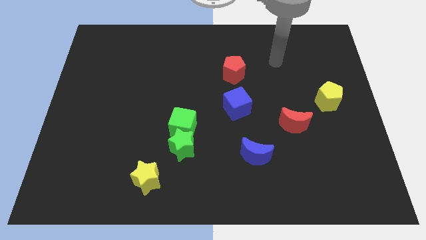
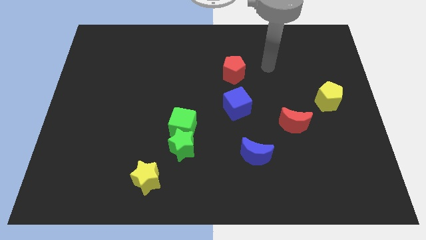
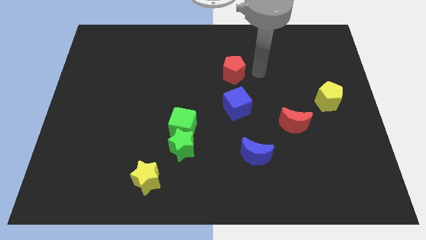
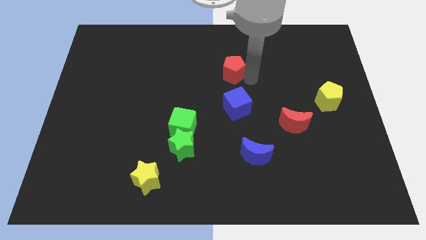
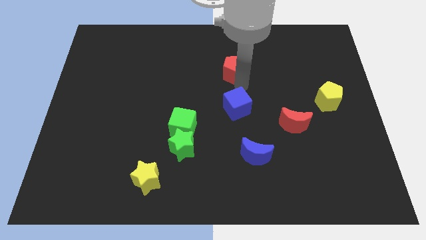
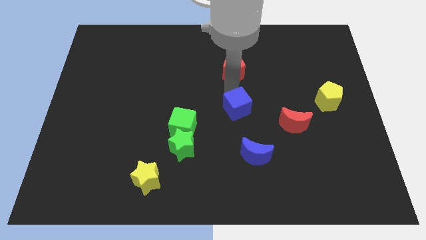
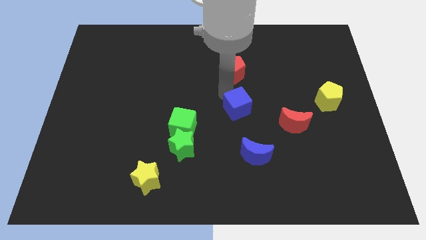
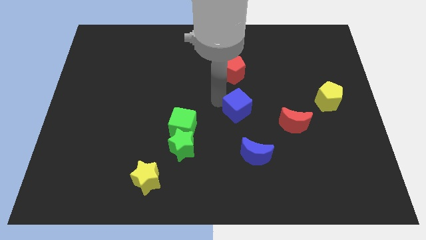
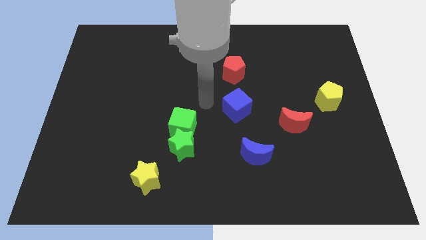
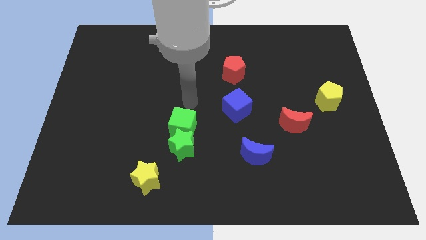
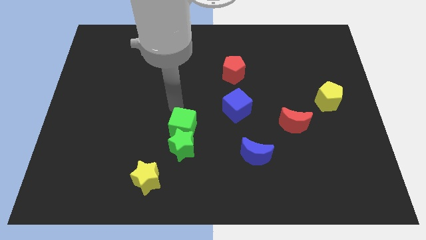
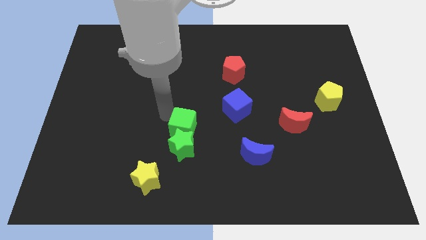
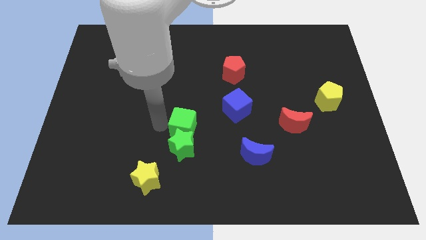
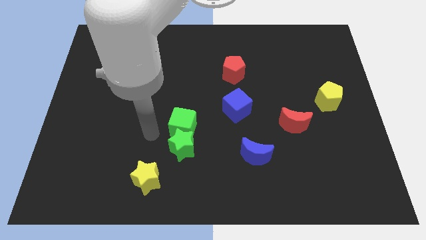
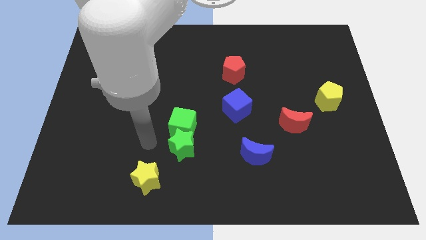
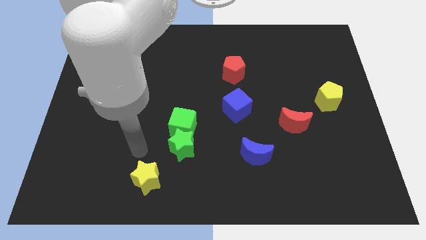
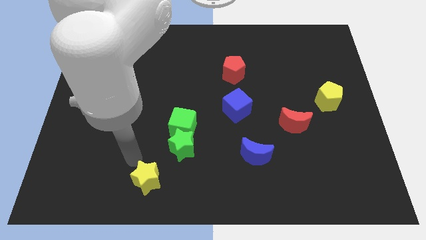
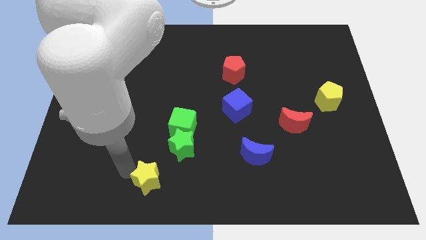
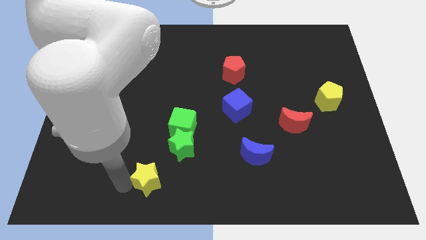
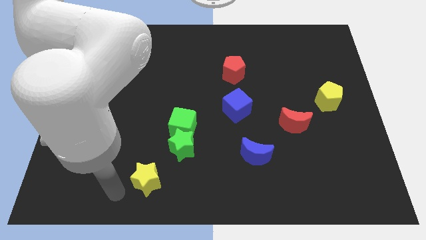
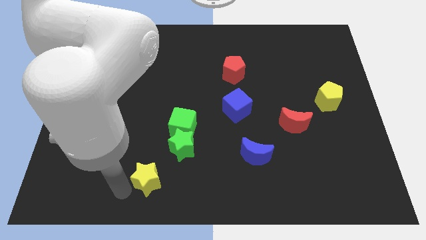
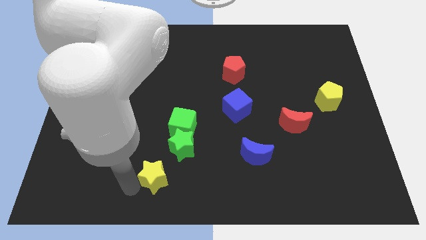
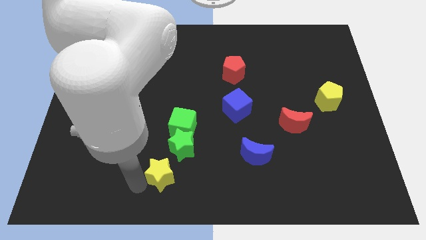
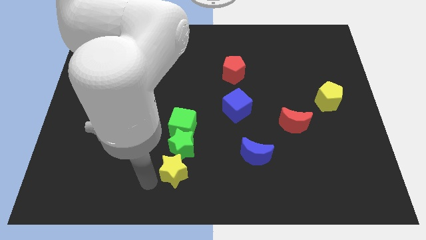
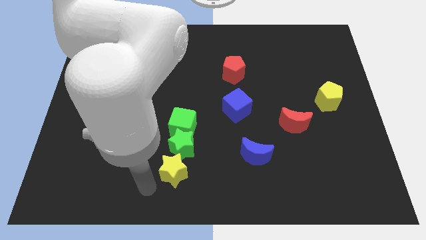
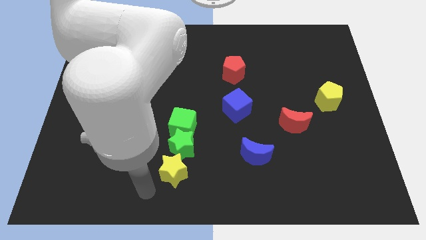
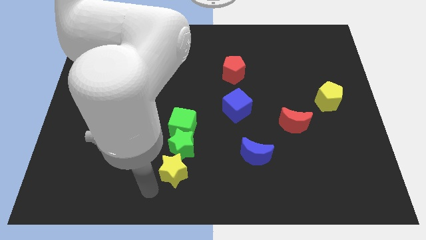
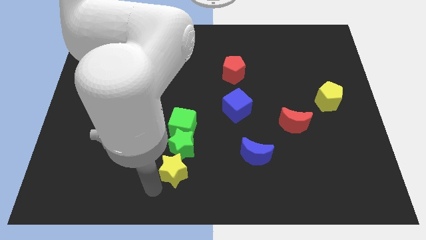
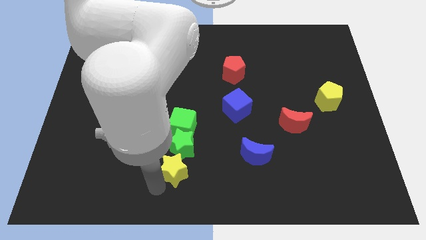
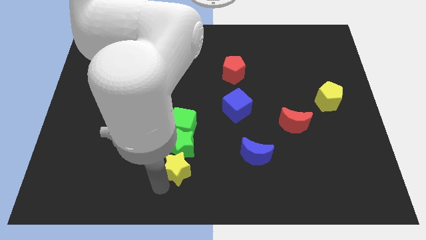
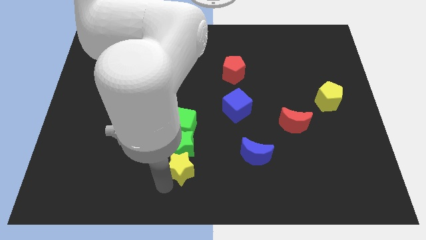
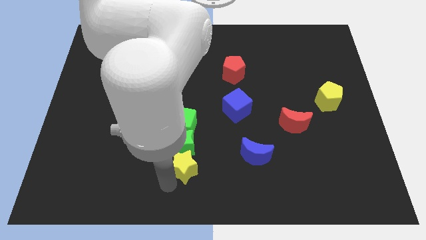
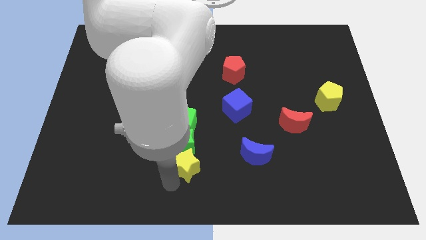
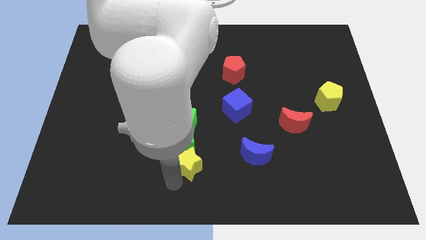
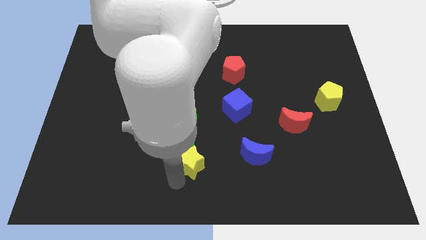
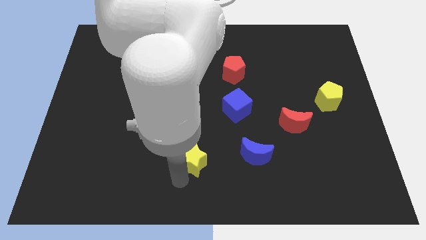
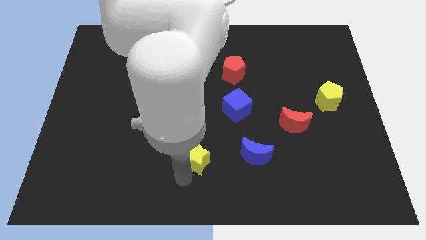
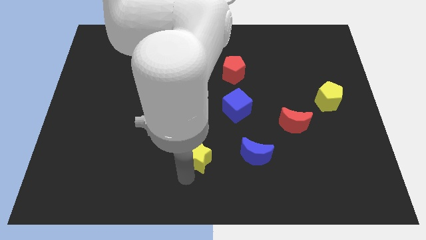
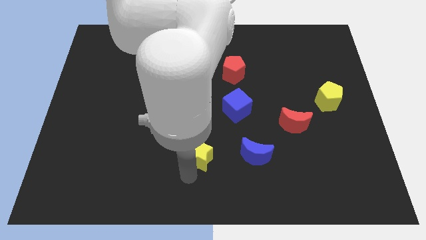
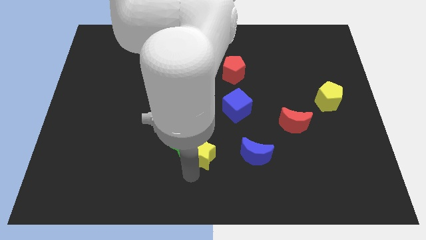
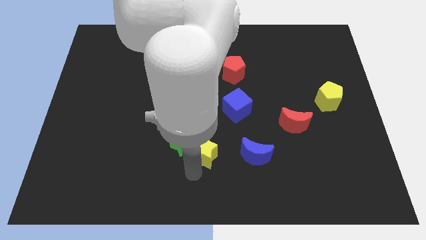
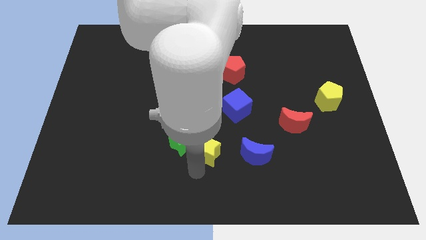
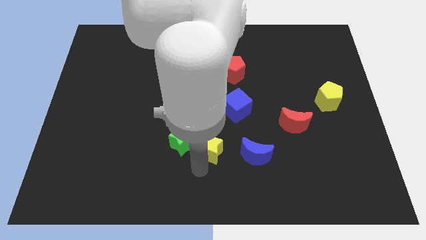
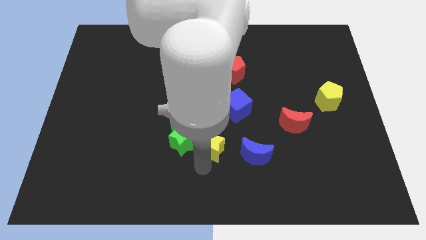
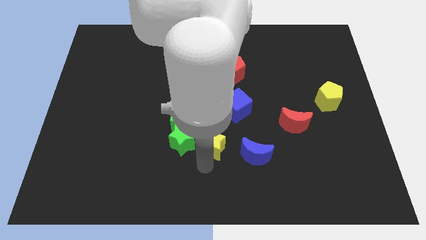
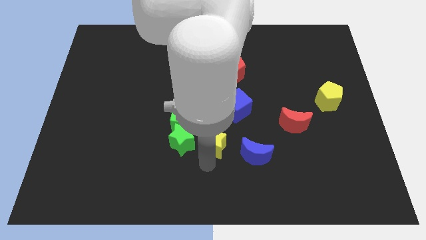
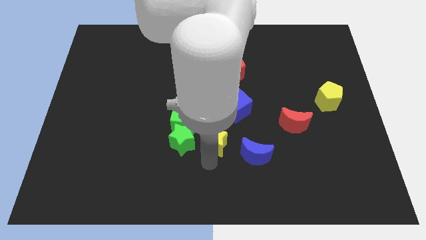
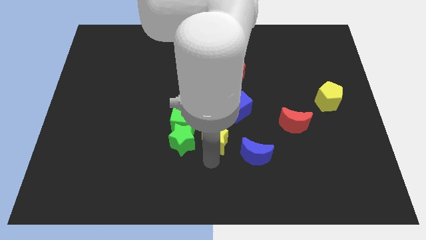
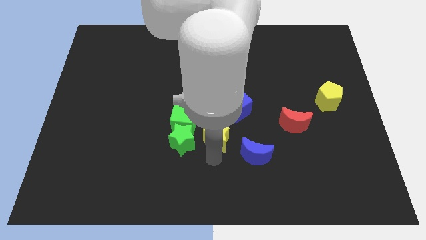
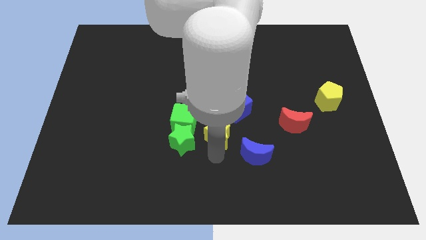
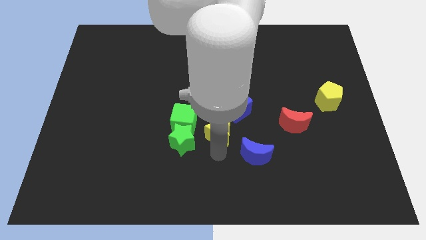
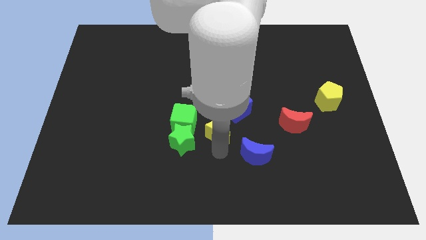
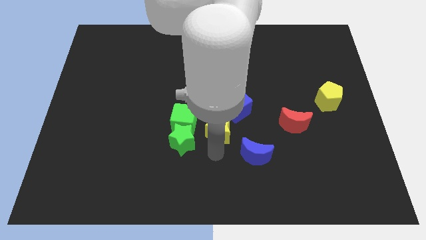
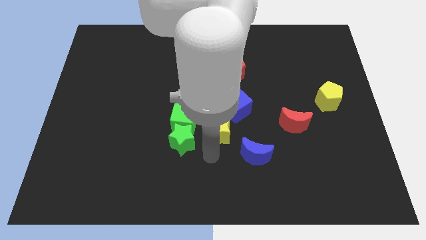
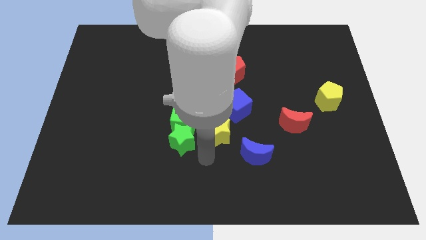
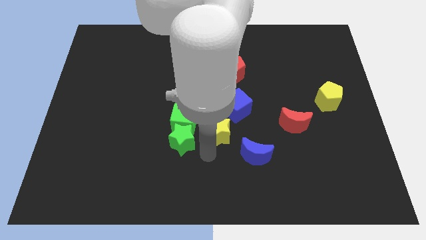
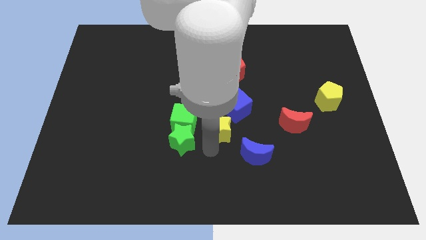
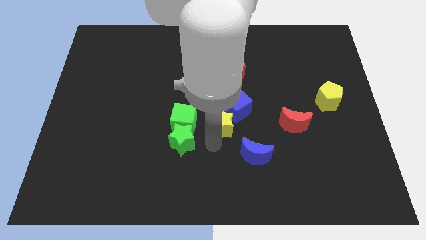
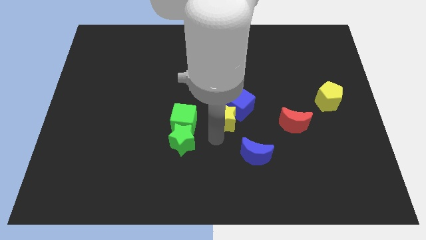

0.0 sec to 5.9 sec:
move the yellow star to the blue cube

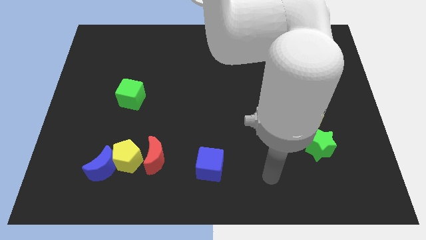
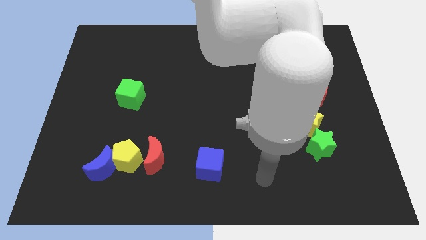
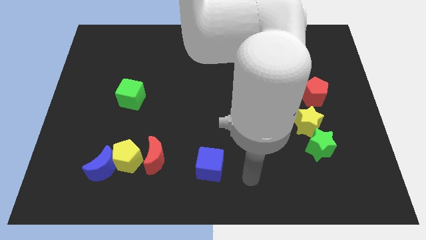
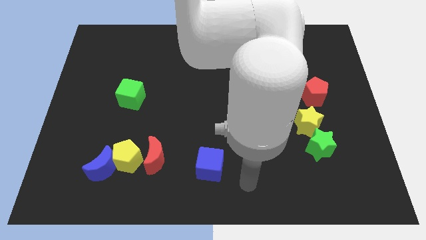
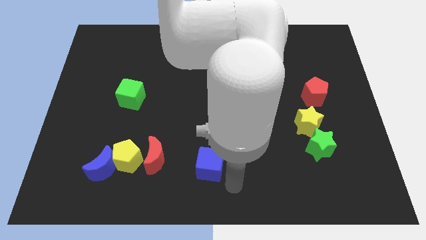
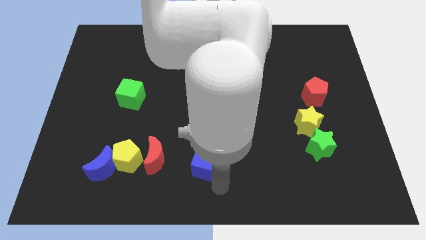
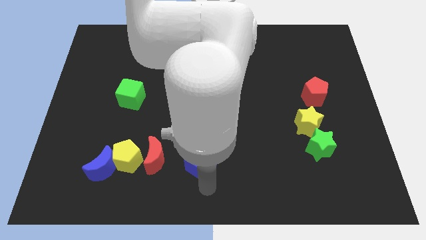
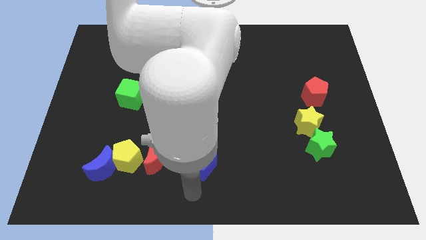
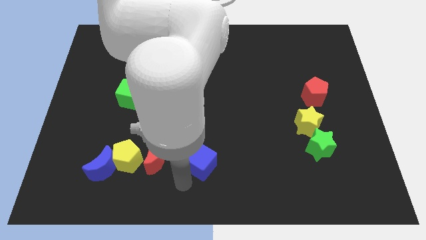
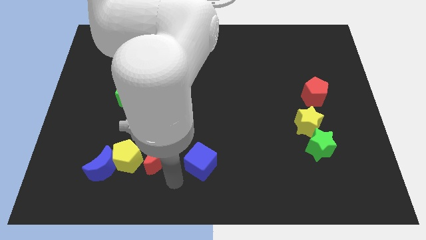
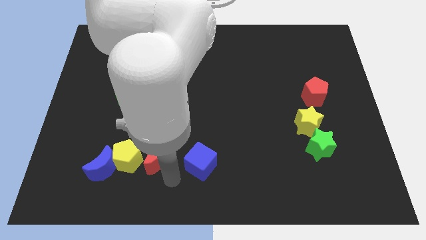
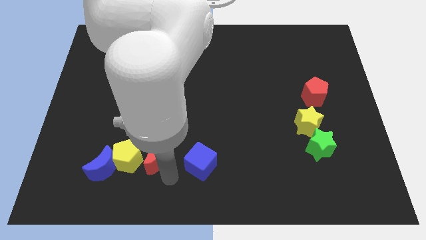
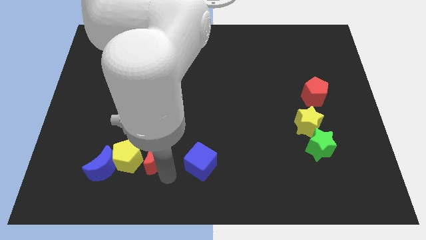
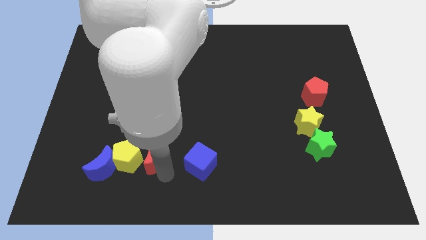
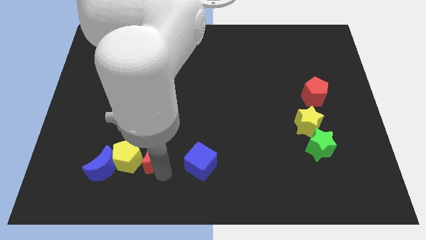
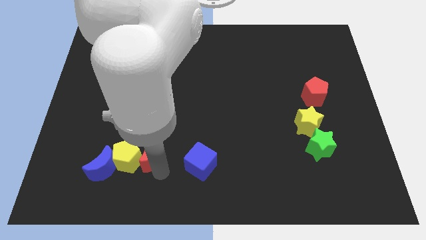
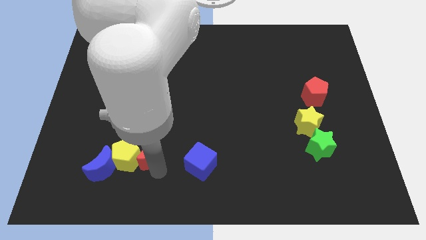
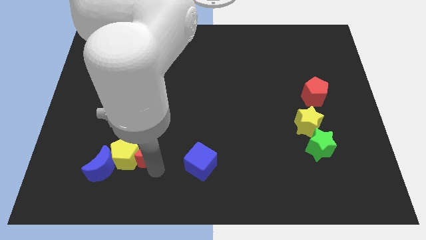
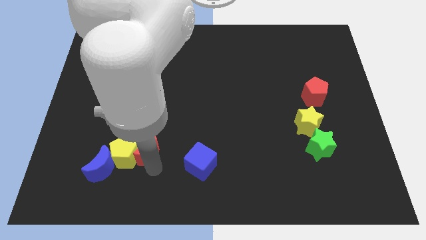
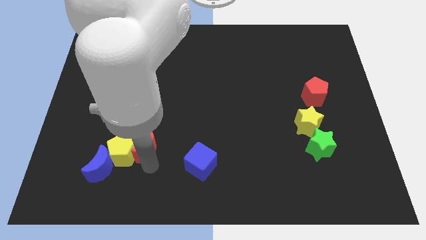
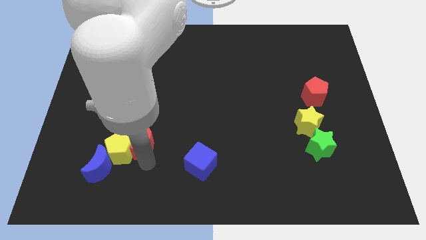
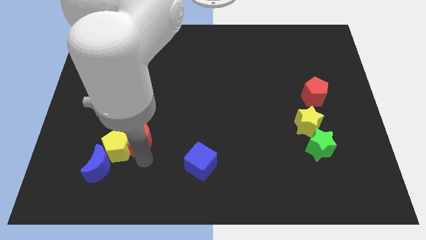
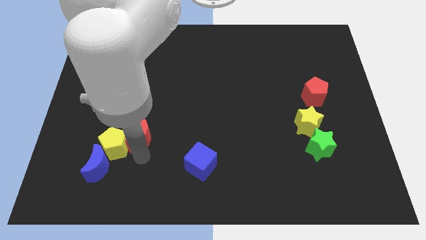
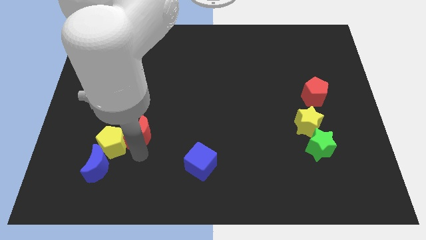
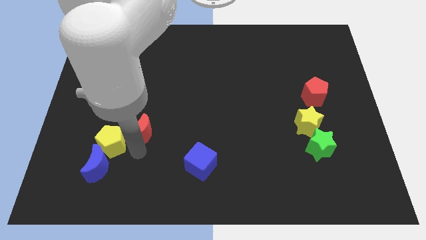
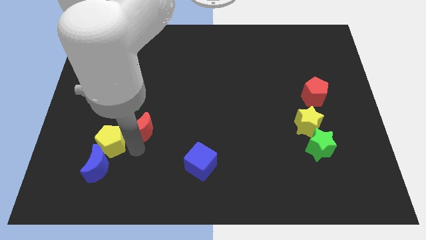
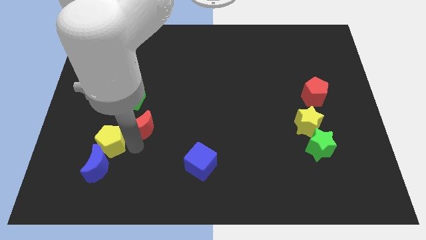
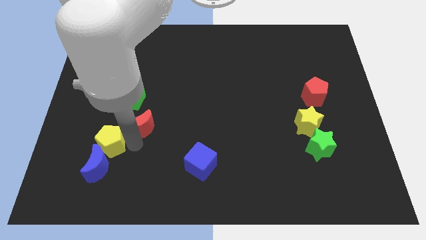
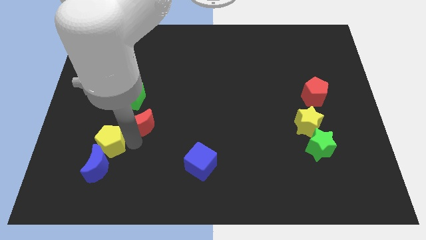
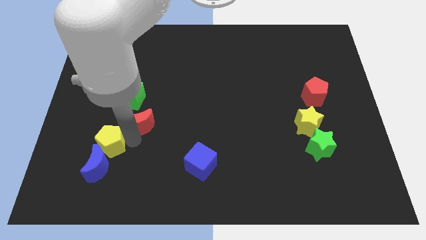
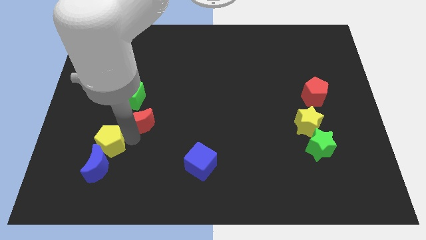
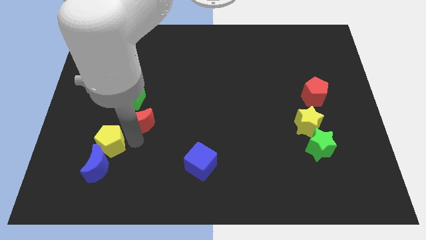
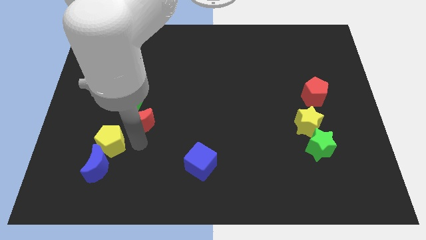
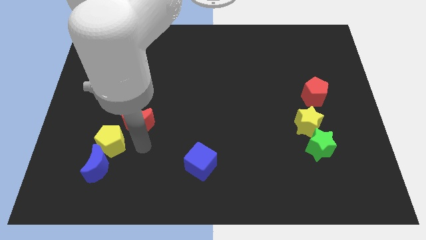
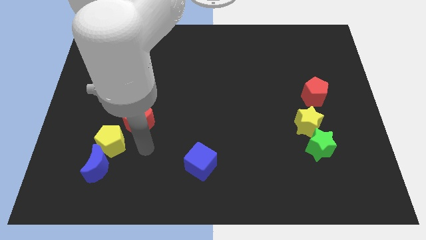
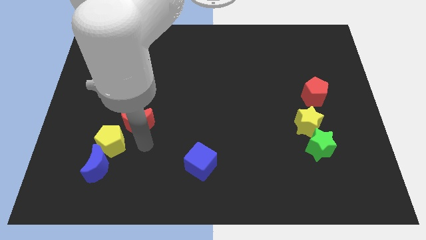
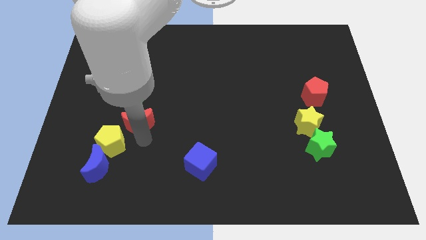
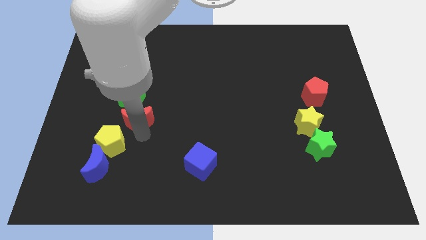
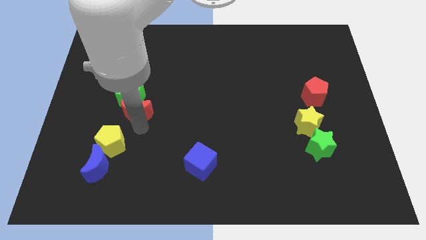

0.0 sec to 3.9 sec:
put the red moon towards the green cube
